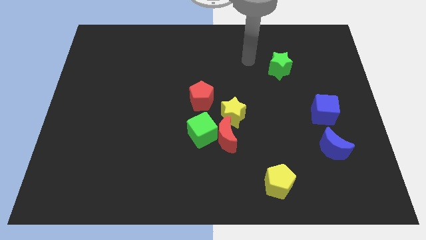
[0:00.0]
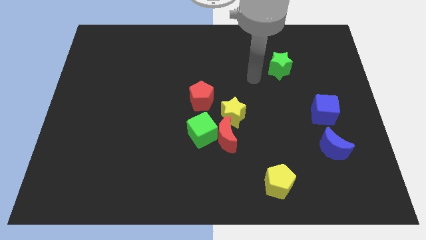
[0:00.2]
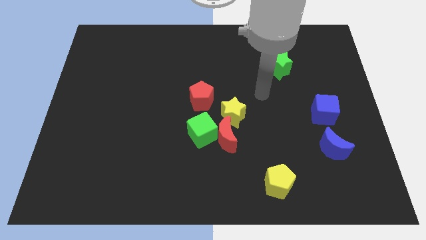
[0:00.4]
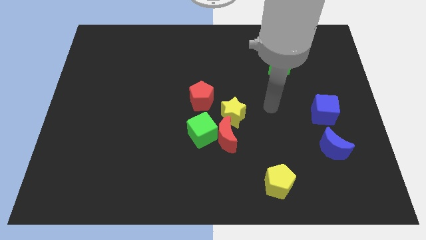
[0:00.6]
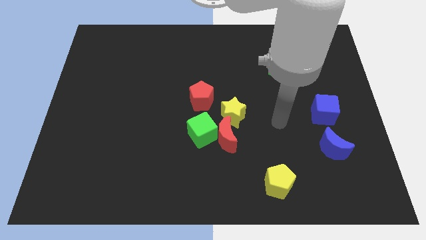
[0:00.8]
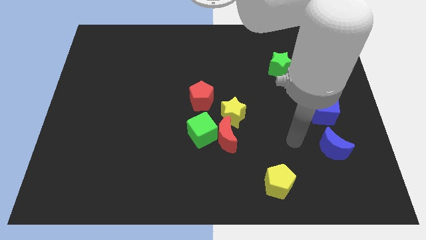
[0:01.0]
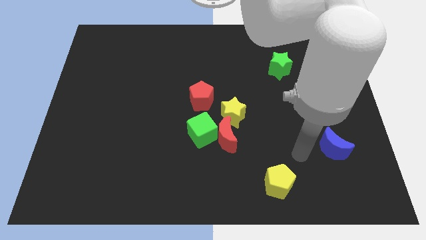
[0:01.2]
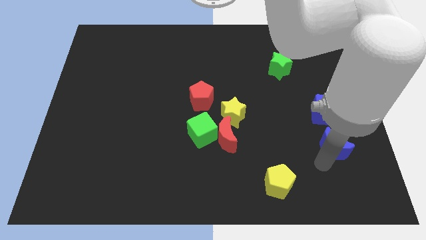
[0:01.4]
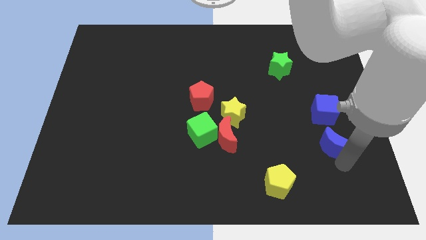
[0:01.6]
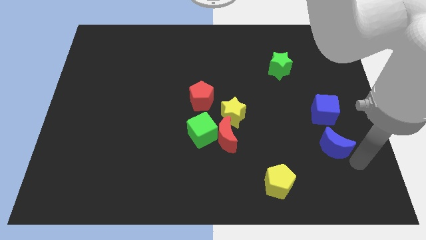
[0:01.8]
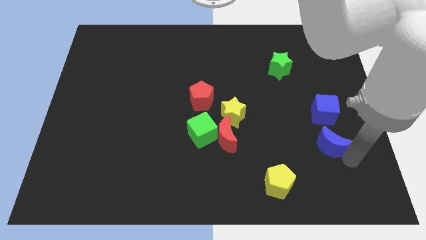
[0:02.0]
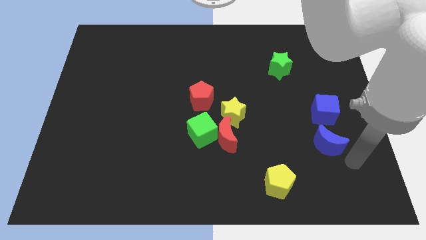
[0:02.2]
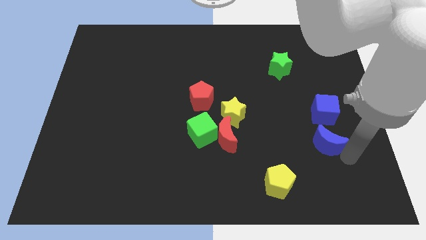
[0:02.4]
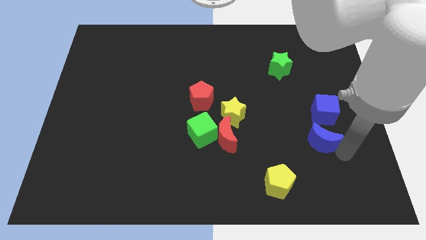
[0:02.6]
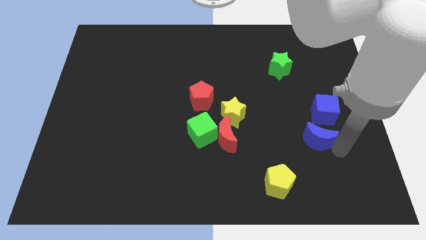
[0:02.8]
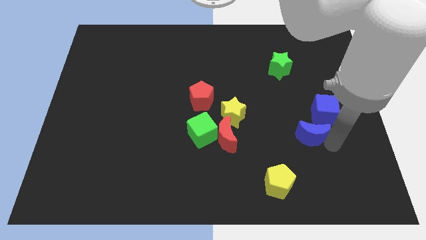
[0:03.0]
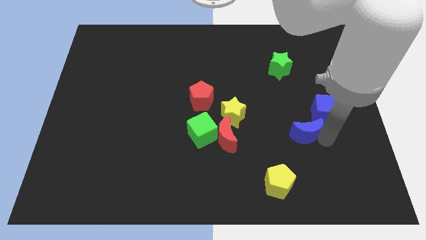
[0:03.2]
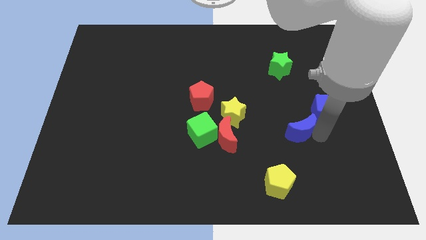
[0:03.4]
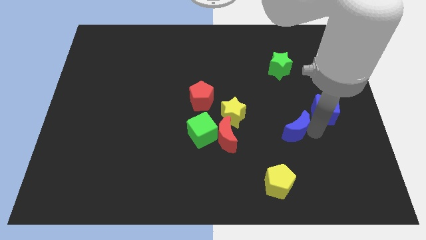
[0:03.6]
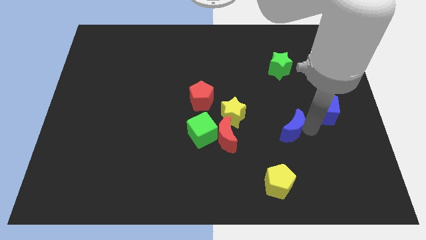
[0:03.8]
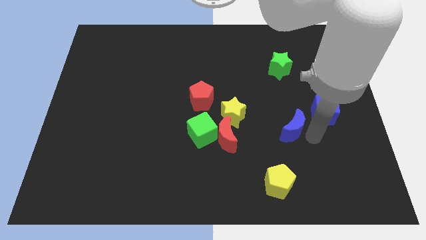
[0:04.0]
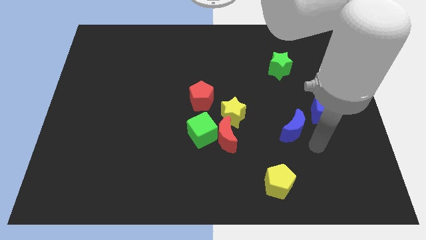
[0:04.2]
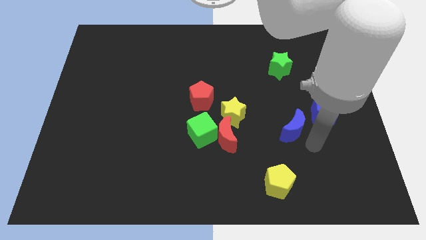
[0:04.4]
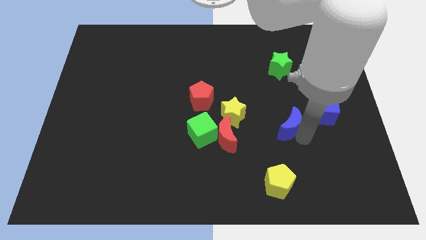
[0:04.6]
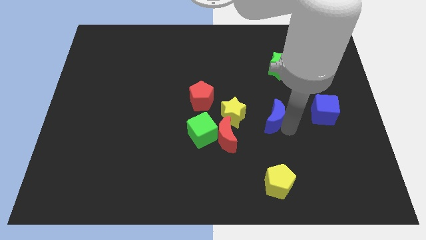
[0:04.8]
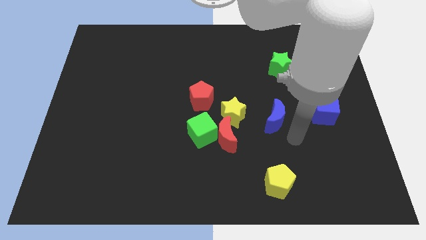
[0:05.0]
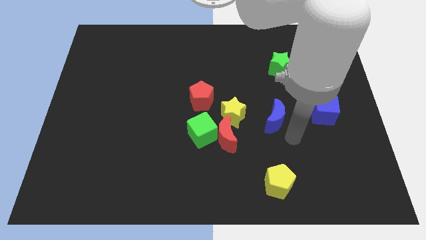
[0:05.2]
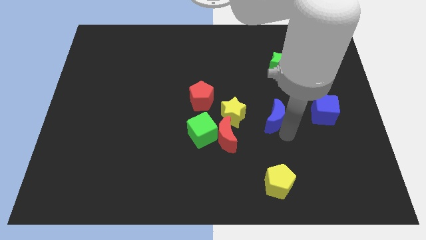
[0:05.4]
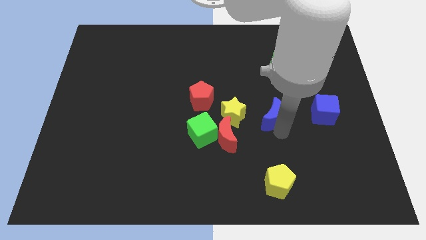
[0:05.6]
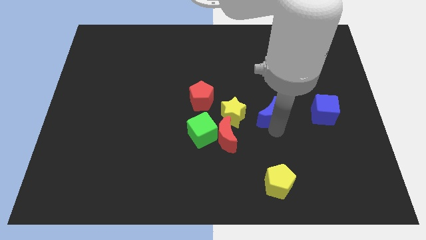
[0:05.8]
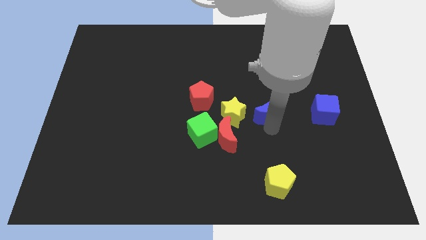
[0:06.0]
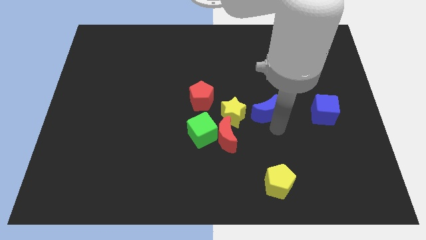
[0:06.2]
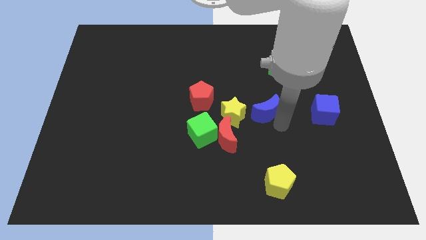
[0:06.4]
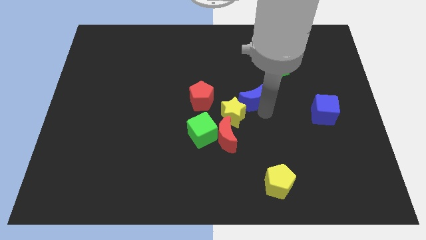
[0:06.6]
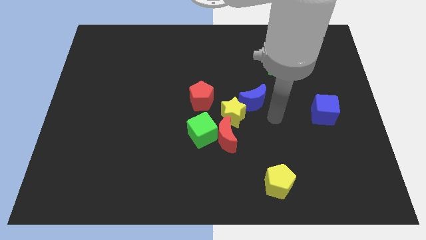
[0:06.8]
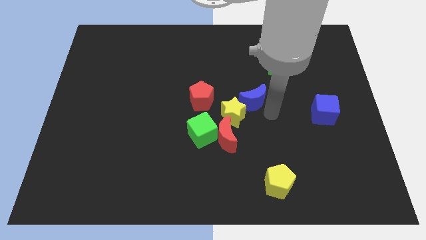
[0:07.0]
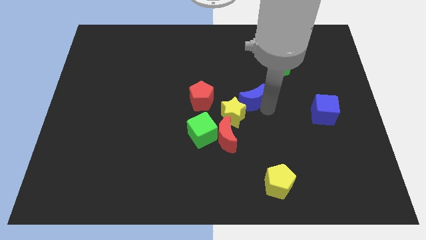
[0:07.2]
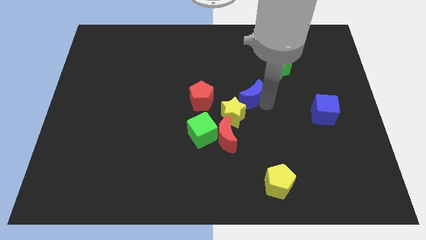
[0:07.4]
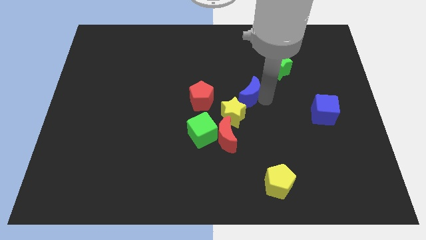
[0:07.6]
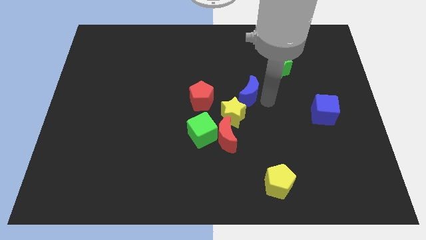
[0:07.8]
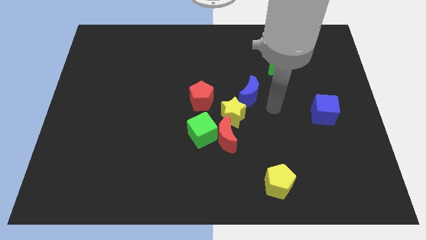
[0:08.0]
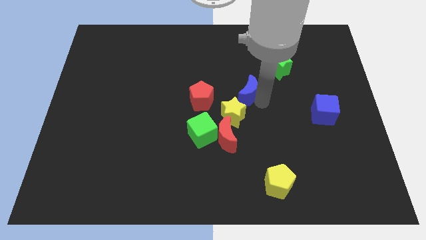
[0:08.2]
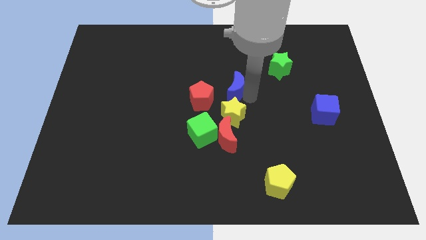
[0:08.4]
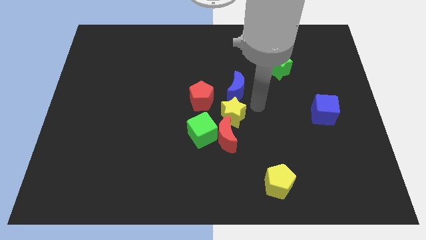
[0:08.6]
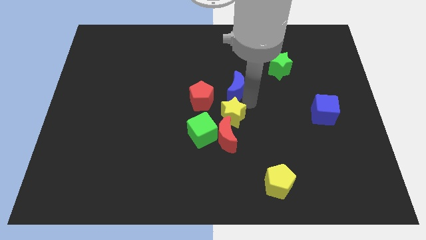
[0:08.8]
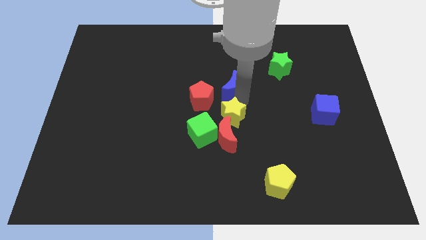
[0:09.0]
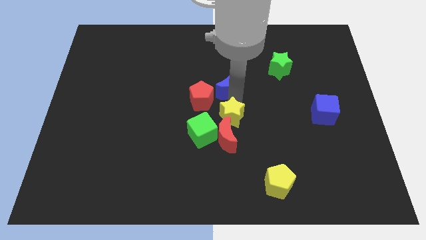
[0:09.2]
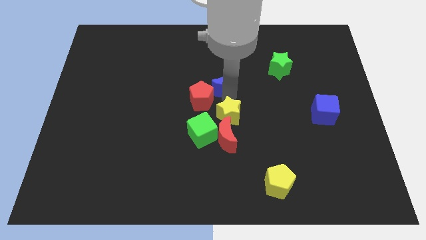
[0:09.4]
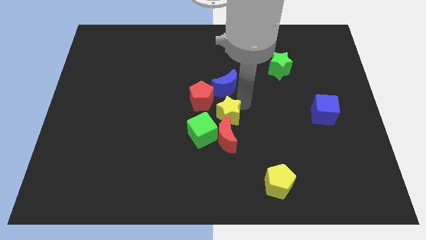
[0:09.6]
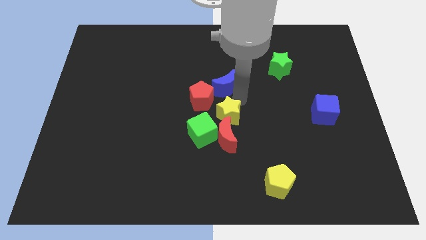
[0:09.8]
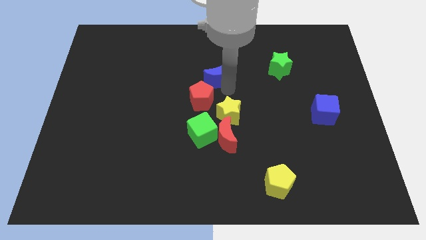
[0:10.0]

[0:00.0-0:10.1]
move the blue moon above the red pentagon

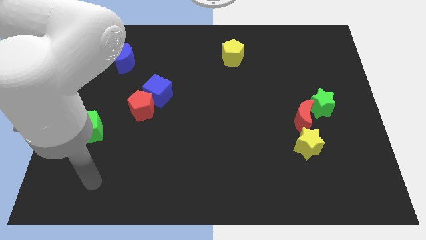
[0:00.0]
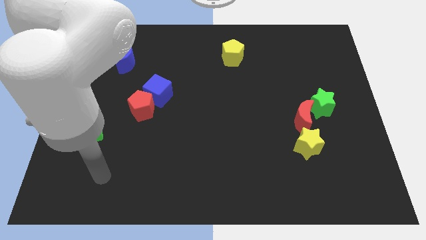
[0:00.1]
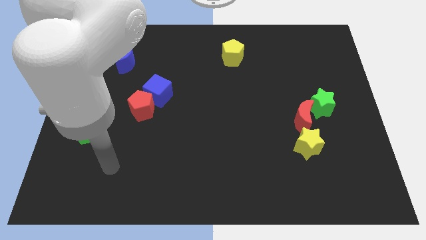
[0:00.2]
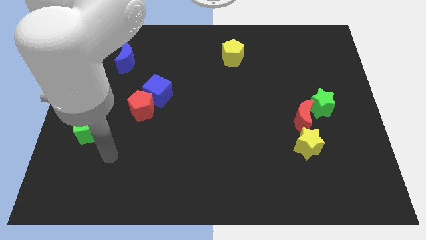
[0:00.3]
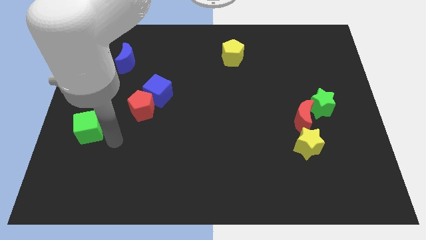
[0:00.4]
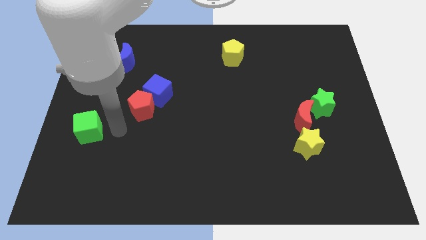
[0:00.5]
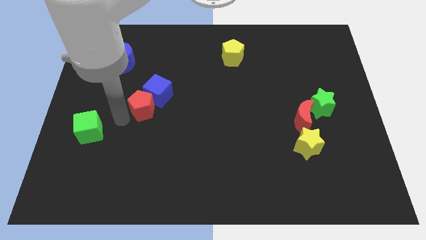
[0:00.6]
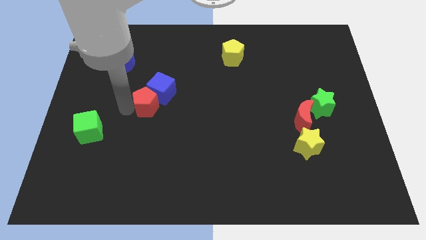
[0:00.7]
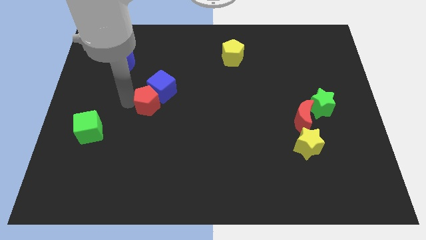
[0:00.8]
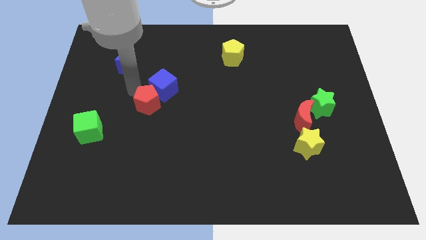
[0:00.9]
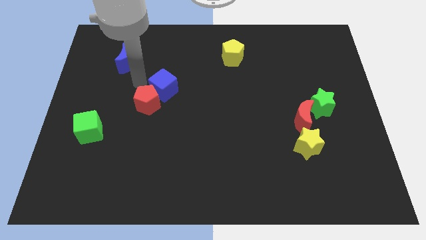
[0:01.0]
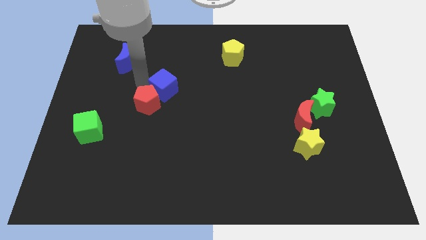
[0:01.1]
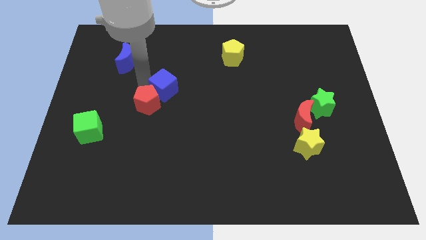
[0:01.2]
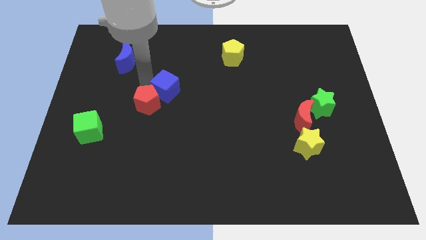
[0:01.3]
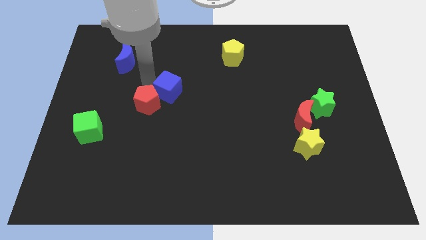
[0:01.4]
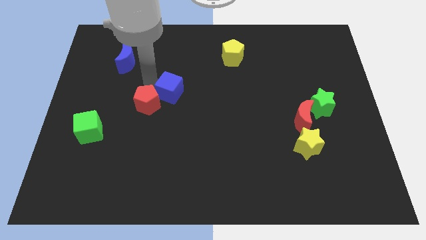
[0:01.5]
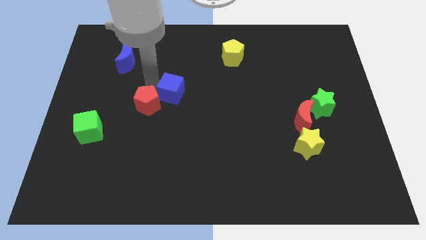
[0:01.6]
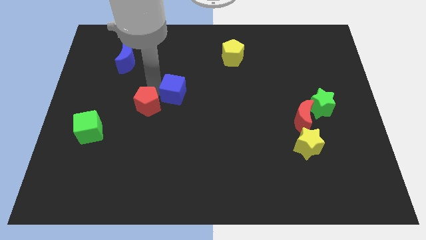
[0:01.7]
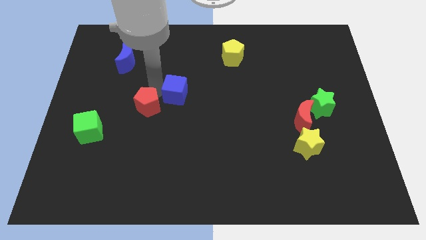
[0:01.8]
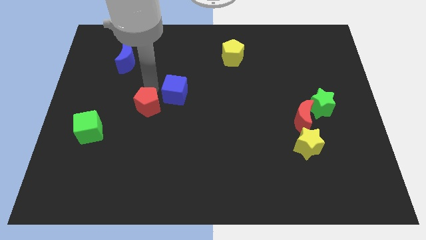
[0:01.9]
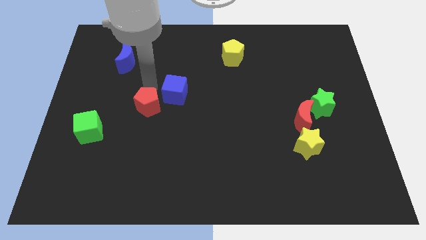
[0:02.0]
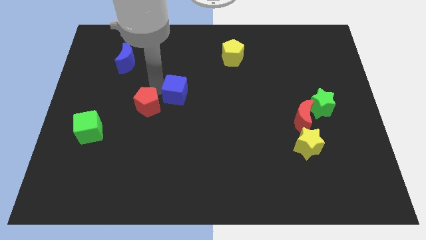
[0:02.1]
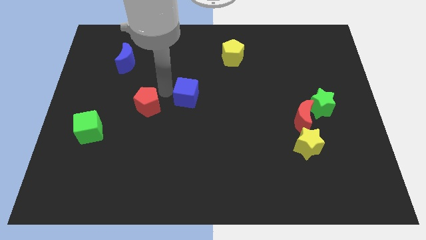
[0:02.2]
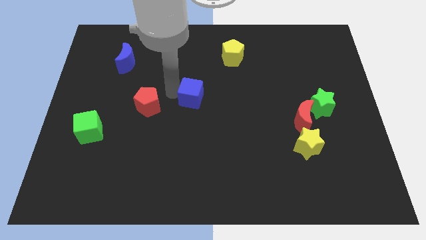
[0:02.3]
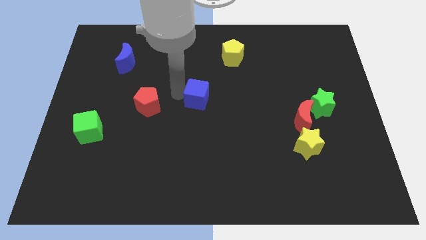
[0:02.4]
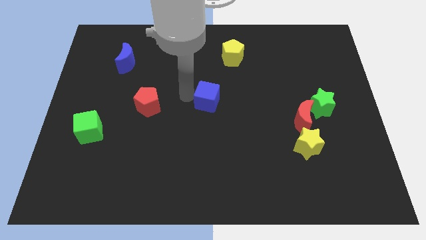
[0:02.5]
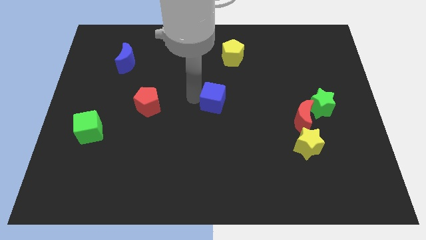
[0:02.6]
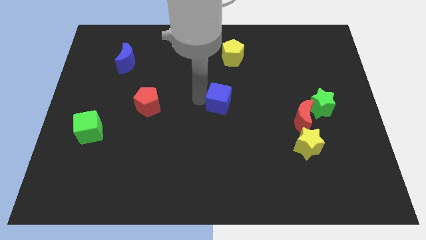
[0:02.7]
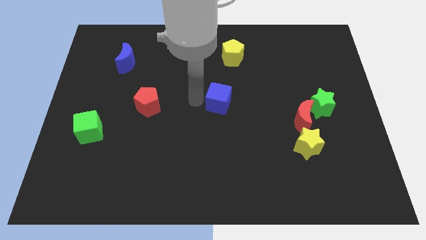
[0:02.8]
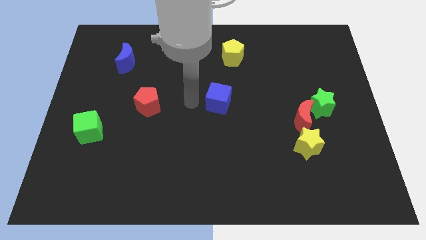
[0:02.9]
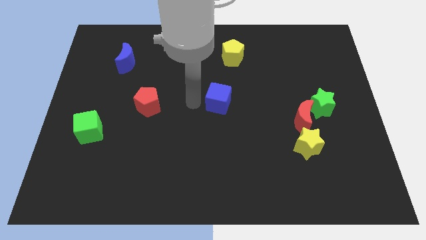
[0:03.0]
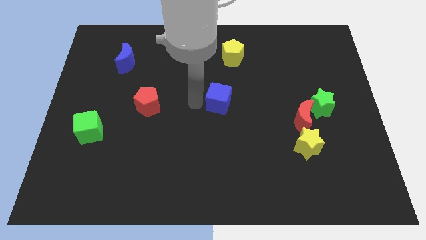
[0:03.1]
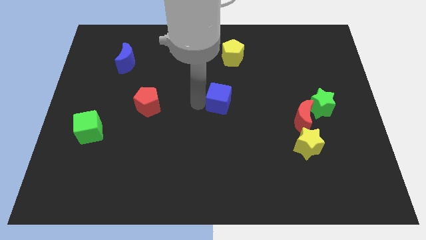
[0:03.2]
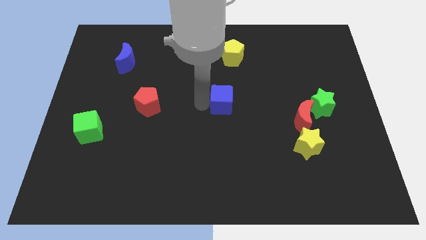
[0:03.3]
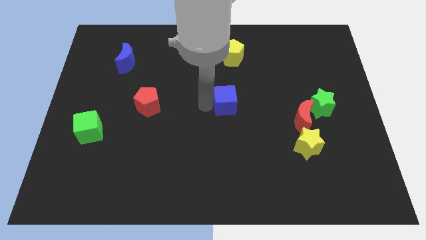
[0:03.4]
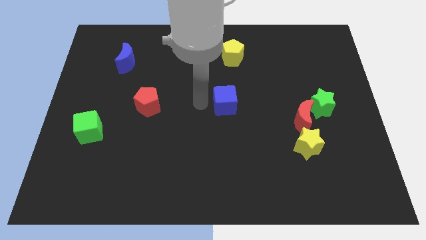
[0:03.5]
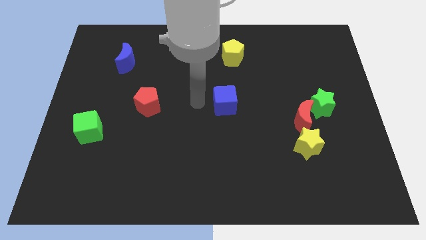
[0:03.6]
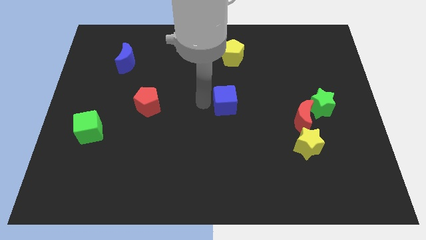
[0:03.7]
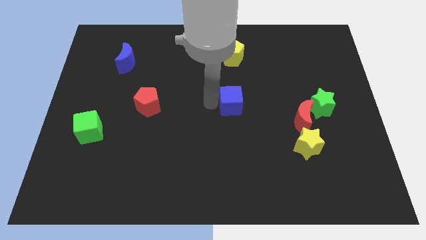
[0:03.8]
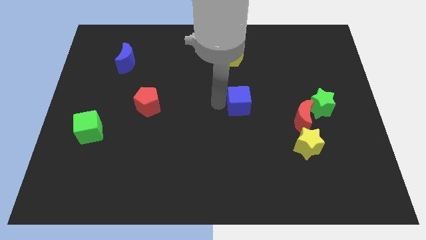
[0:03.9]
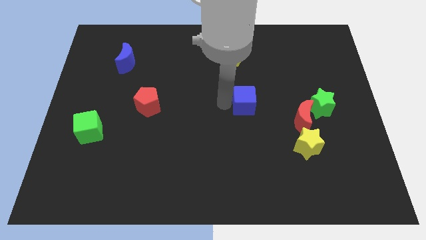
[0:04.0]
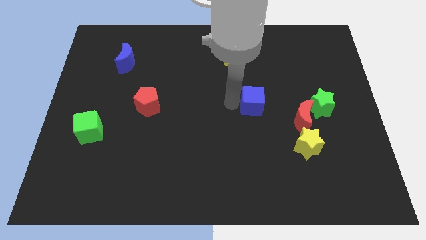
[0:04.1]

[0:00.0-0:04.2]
slide the blue cube to the left side of the green star
